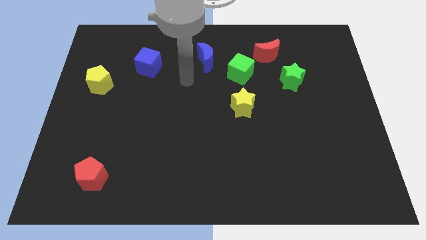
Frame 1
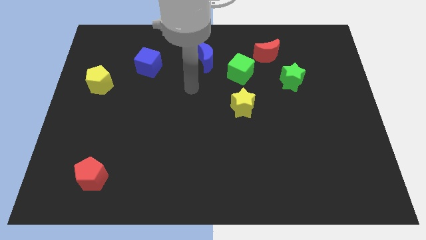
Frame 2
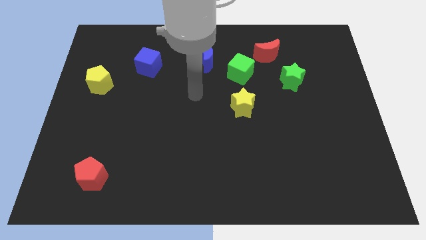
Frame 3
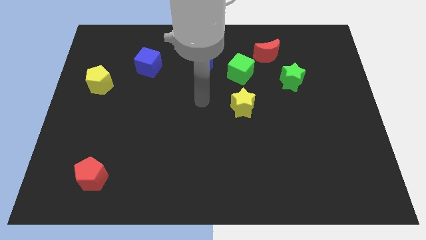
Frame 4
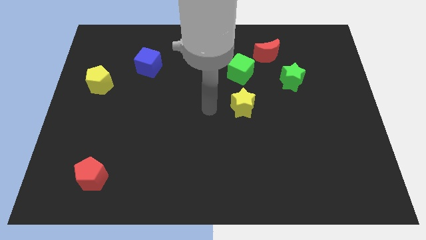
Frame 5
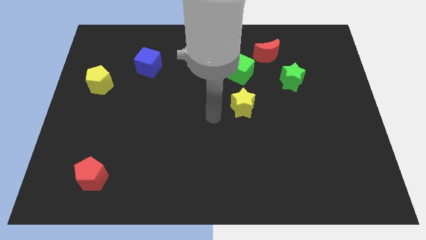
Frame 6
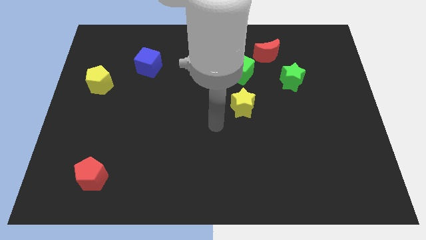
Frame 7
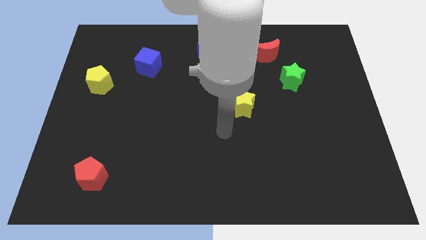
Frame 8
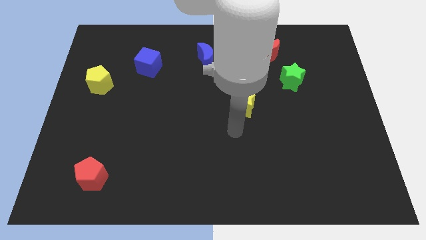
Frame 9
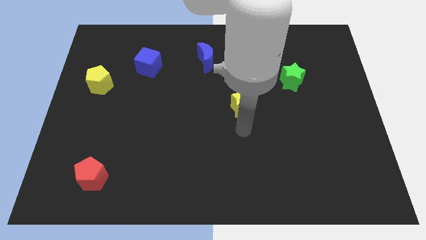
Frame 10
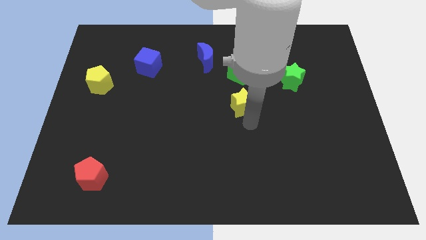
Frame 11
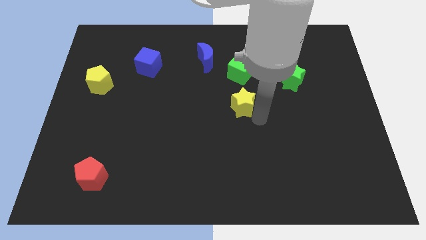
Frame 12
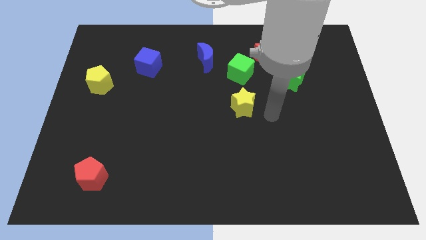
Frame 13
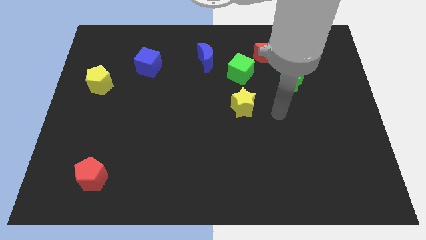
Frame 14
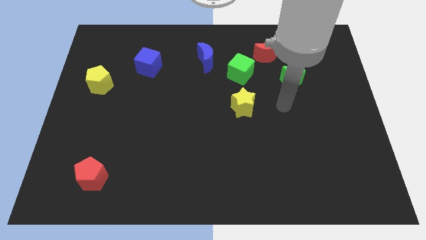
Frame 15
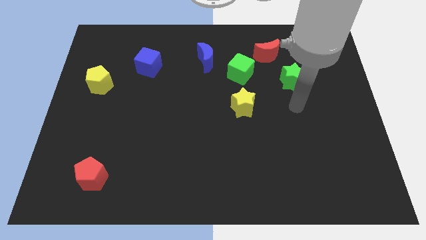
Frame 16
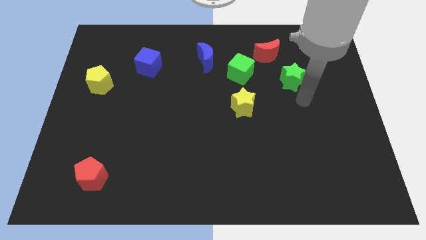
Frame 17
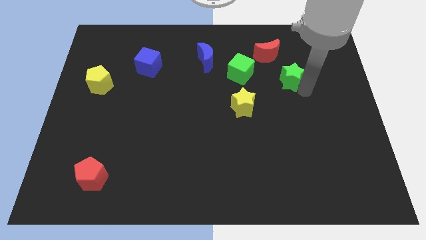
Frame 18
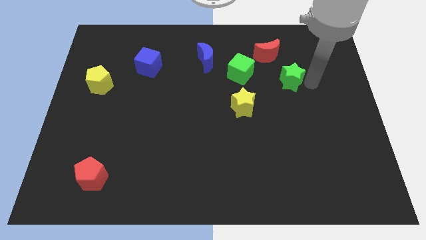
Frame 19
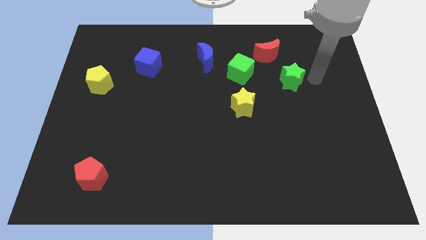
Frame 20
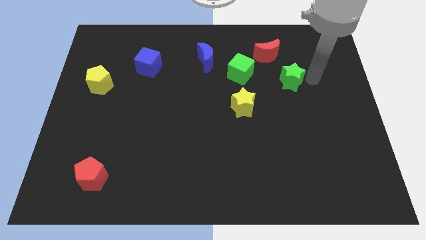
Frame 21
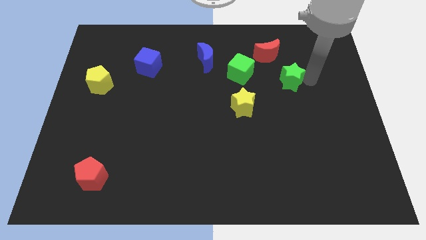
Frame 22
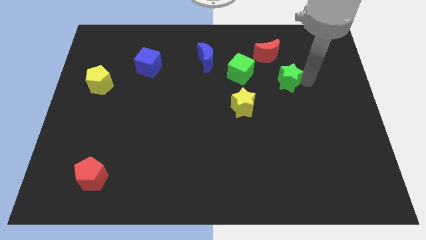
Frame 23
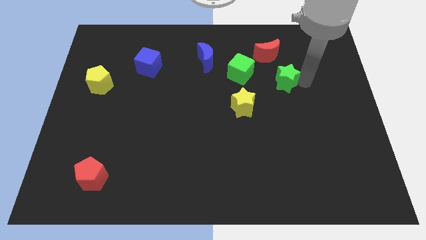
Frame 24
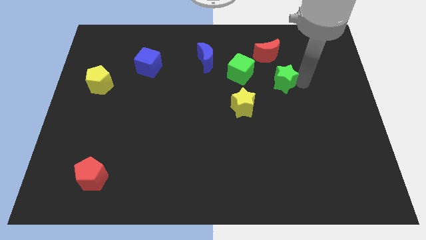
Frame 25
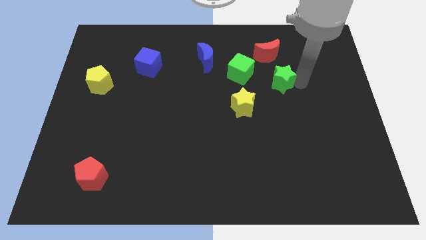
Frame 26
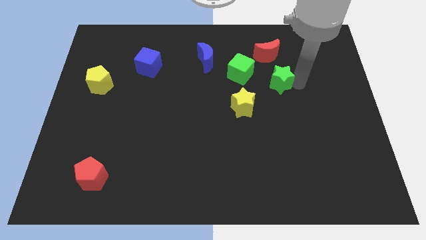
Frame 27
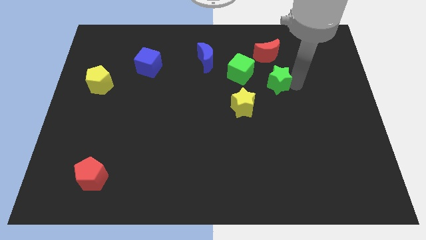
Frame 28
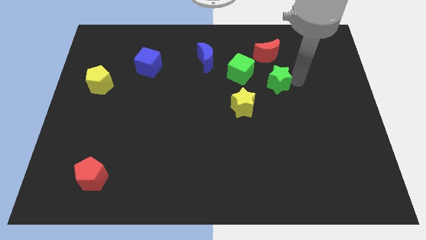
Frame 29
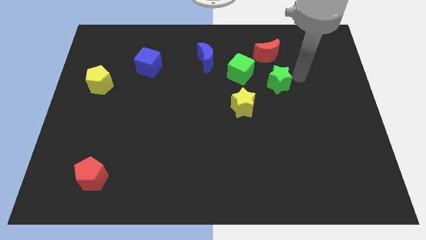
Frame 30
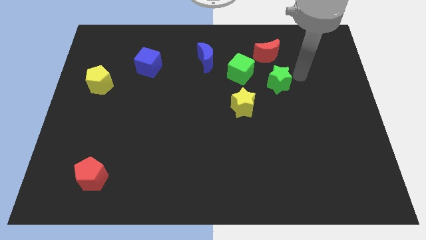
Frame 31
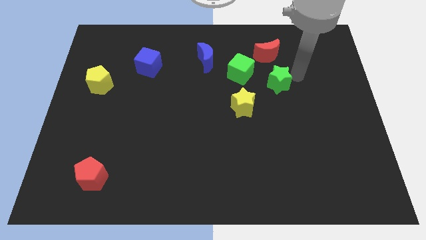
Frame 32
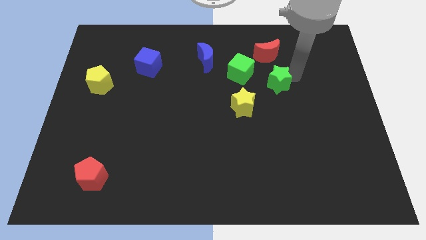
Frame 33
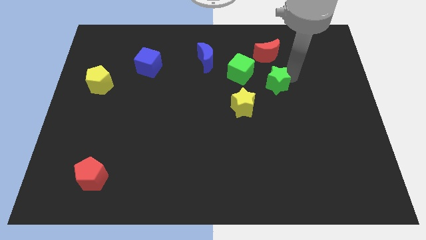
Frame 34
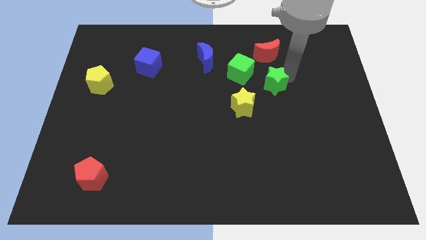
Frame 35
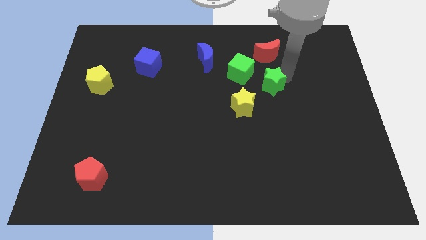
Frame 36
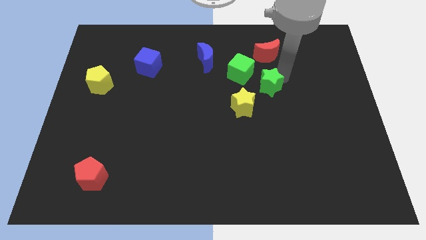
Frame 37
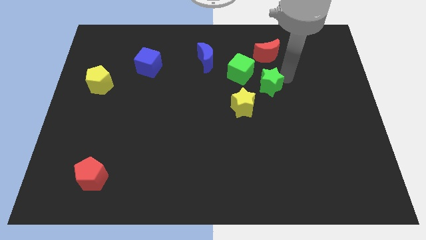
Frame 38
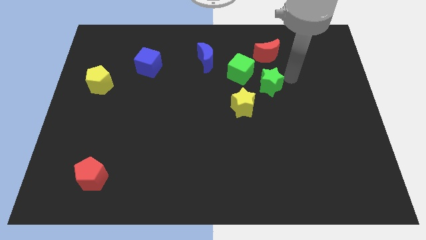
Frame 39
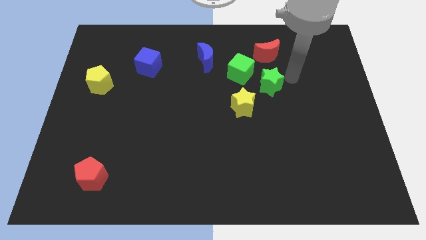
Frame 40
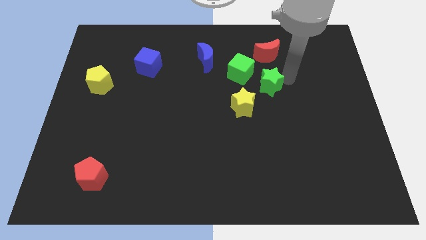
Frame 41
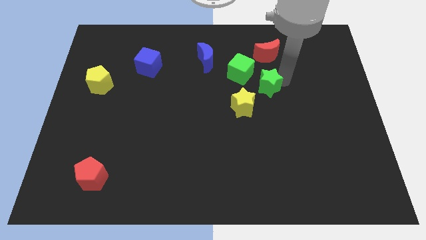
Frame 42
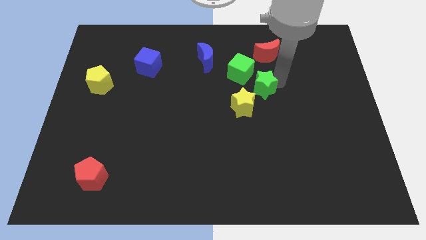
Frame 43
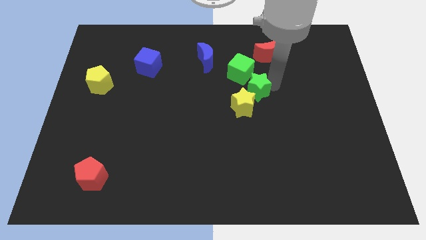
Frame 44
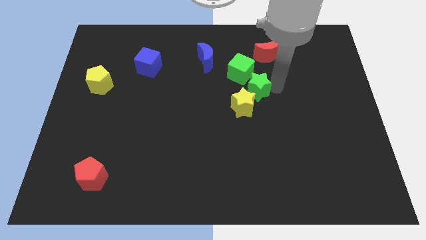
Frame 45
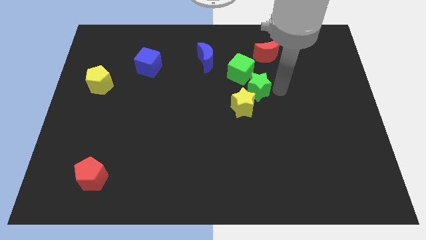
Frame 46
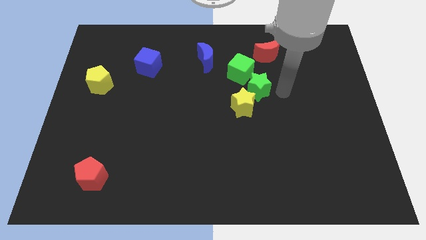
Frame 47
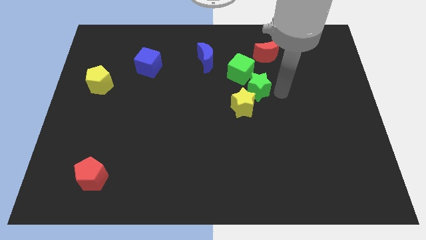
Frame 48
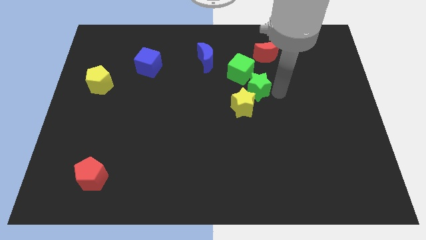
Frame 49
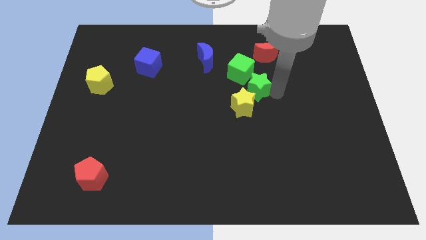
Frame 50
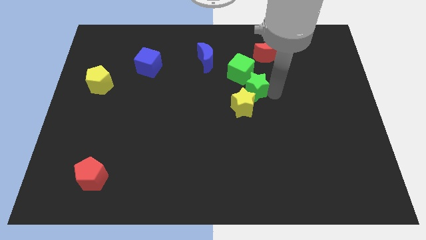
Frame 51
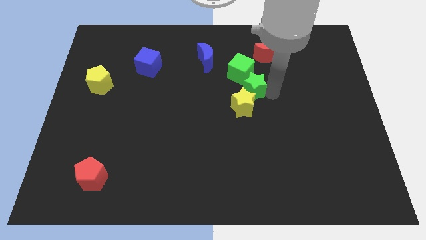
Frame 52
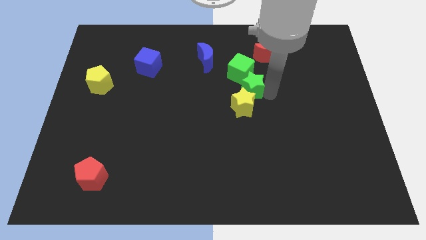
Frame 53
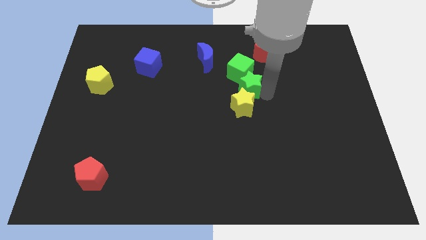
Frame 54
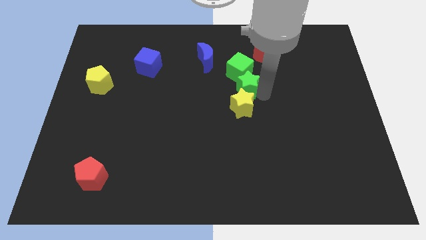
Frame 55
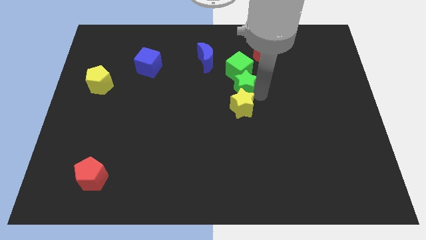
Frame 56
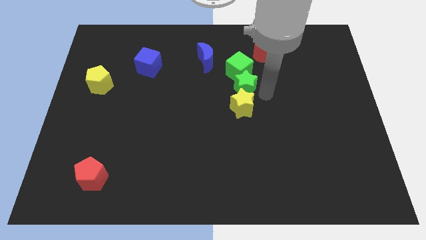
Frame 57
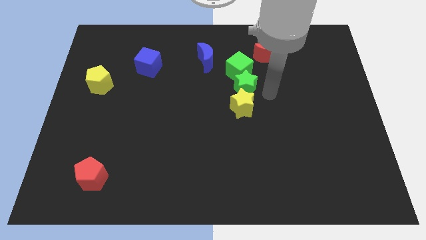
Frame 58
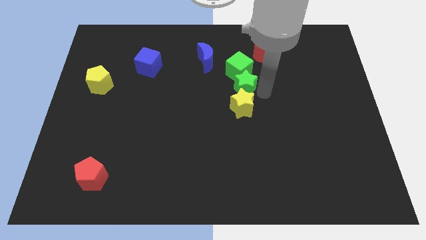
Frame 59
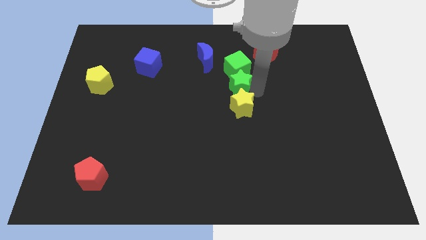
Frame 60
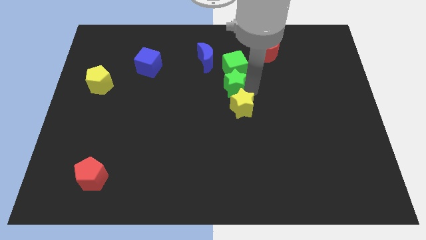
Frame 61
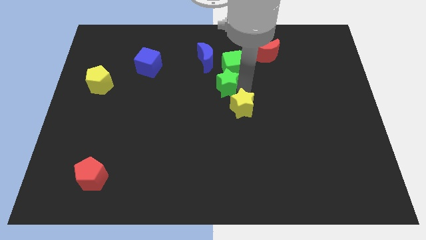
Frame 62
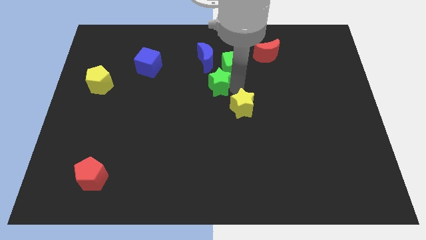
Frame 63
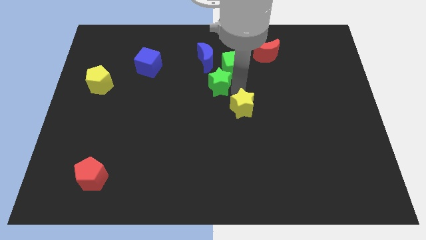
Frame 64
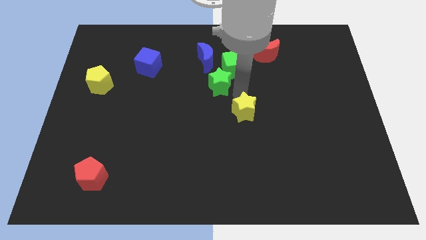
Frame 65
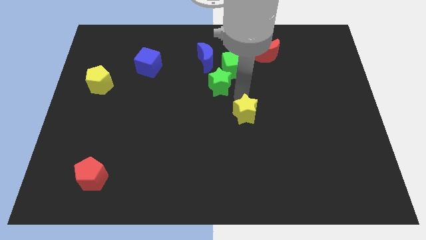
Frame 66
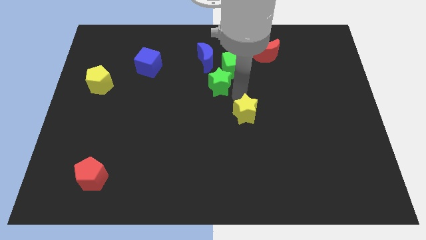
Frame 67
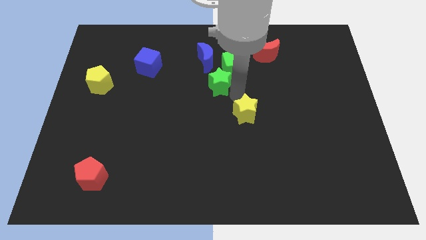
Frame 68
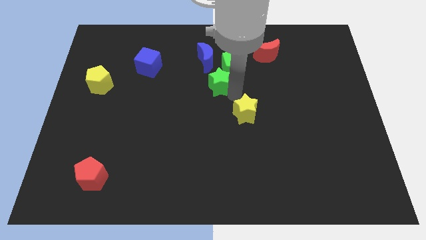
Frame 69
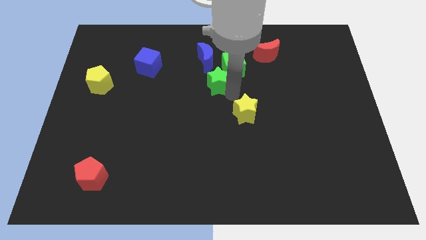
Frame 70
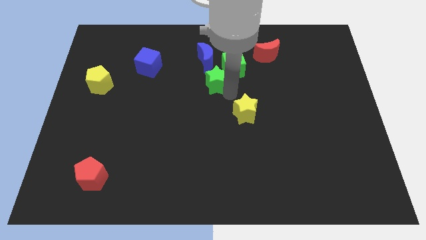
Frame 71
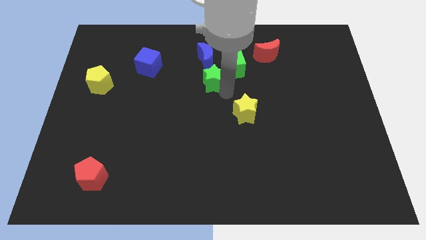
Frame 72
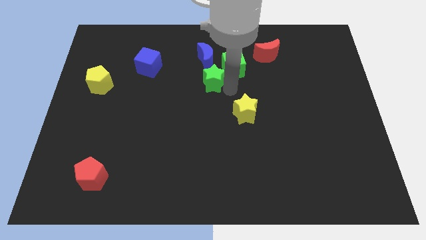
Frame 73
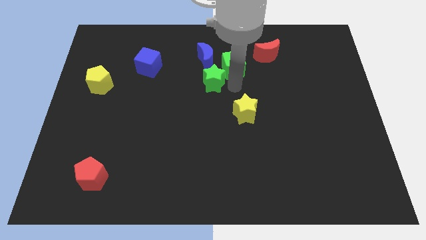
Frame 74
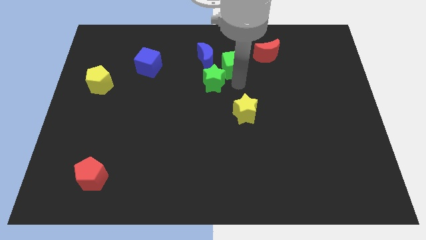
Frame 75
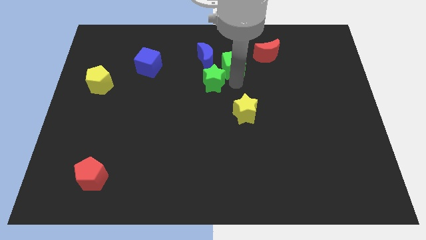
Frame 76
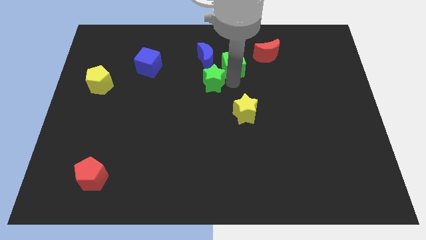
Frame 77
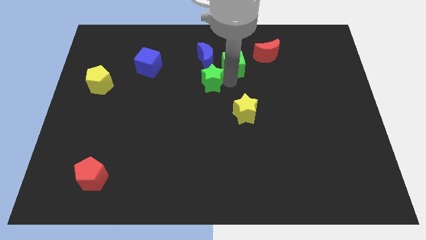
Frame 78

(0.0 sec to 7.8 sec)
move the green star left
